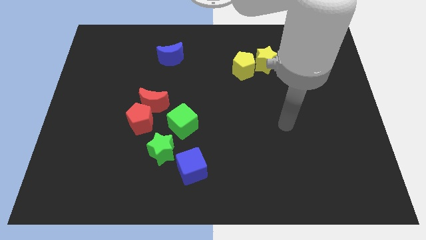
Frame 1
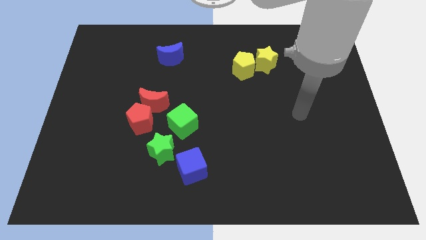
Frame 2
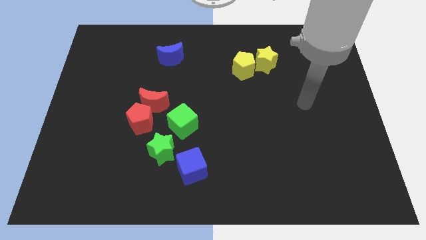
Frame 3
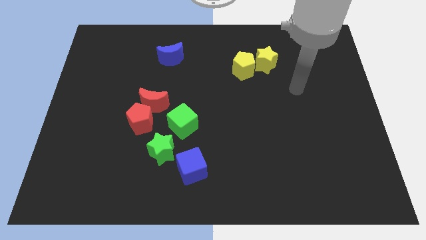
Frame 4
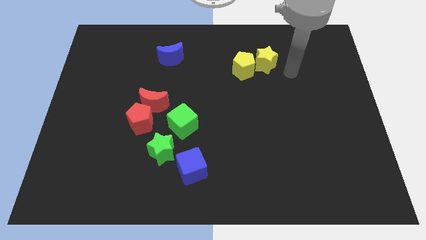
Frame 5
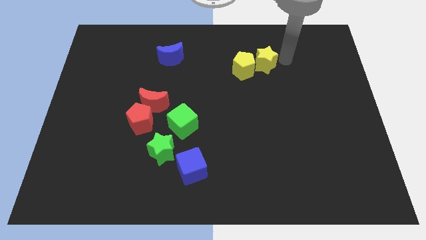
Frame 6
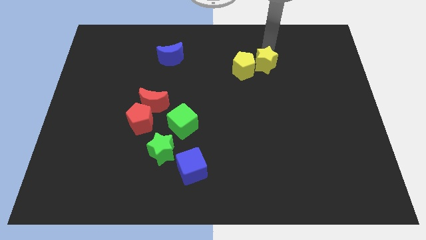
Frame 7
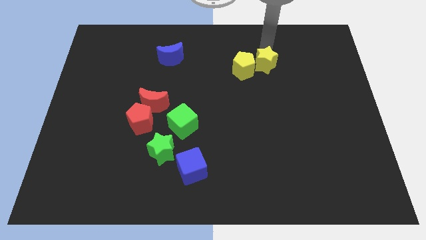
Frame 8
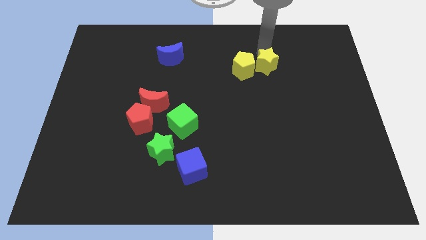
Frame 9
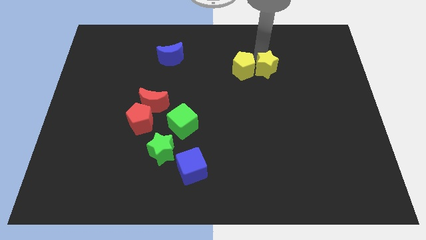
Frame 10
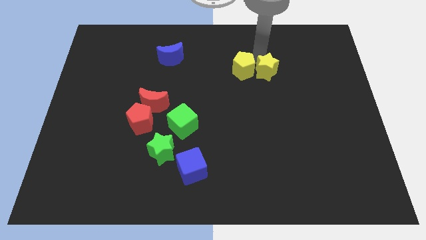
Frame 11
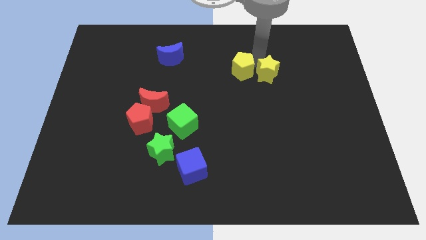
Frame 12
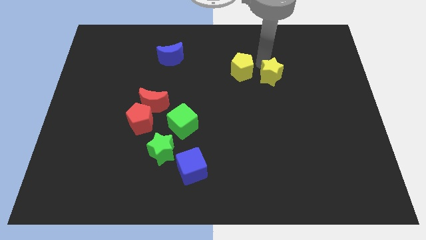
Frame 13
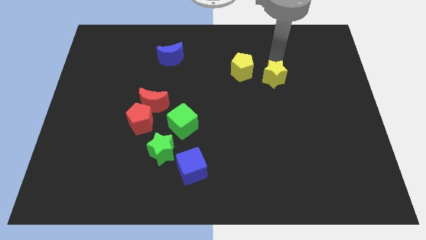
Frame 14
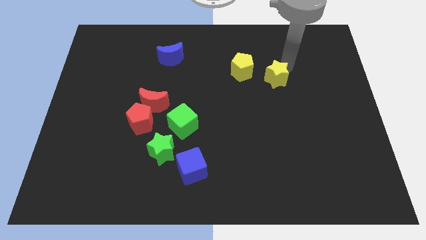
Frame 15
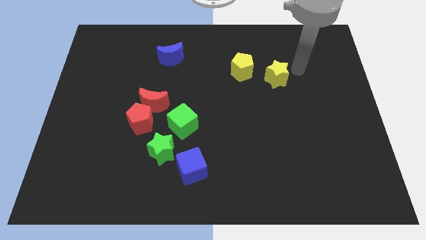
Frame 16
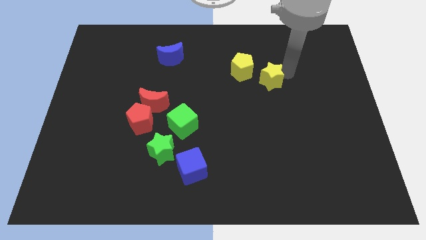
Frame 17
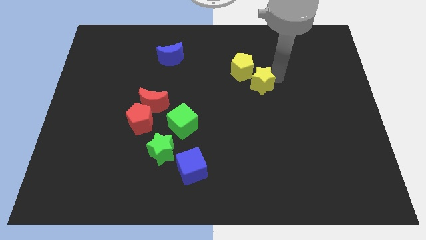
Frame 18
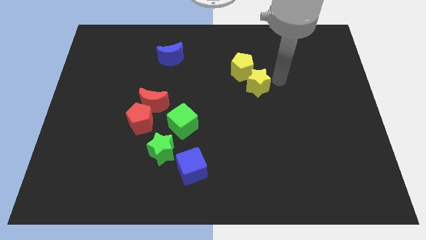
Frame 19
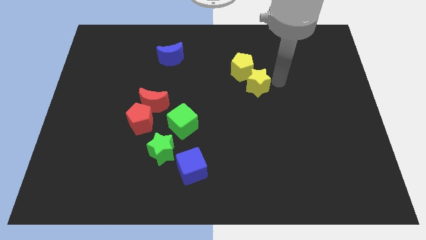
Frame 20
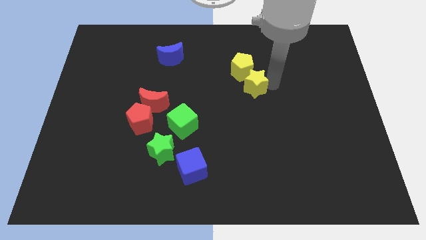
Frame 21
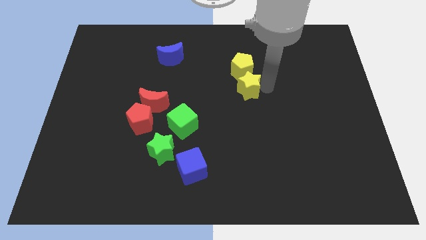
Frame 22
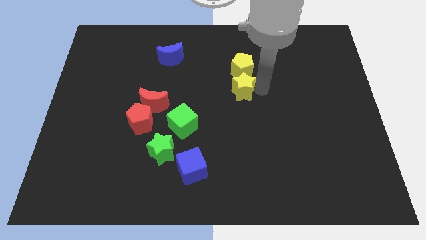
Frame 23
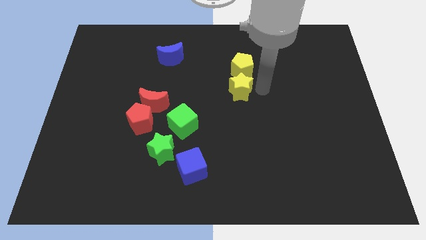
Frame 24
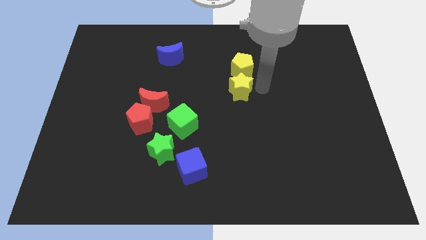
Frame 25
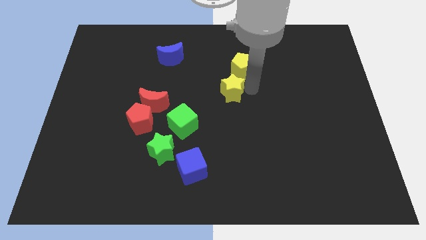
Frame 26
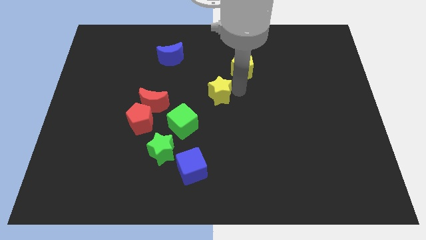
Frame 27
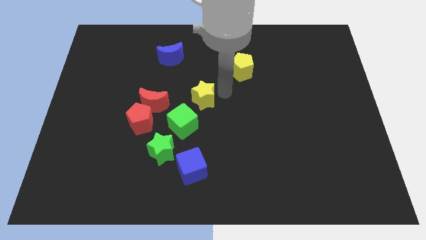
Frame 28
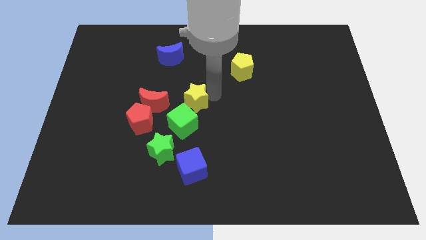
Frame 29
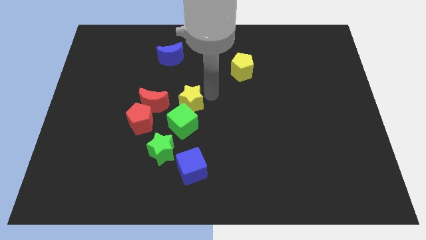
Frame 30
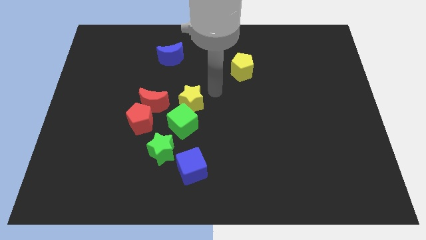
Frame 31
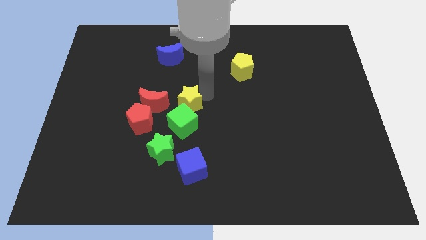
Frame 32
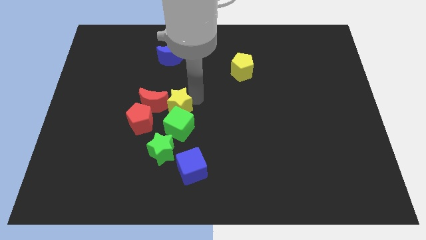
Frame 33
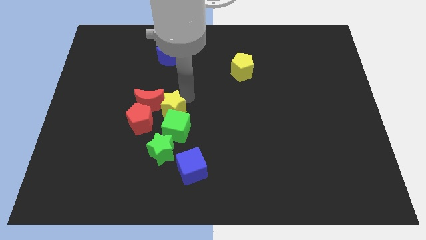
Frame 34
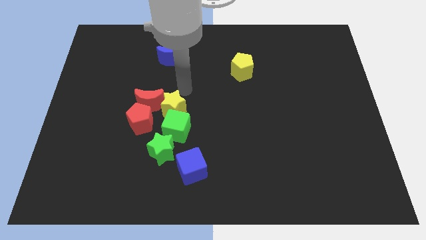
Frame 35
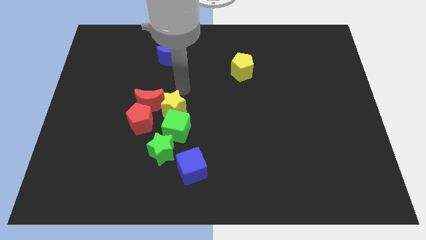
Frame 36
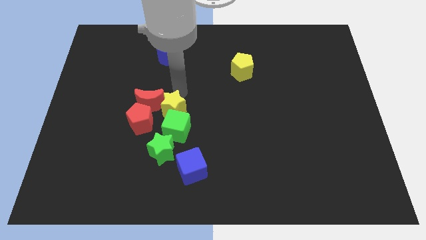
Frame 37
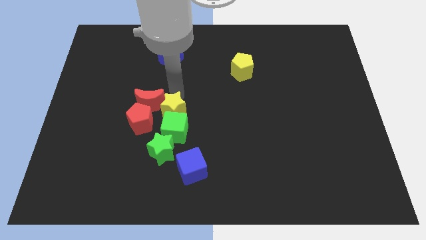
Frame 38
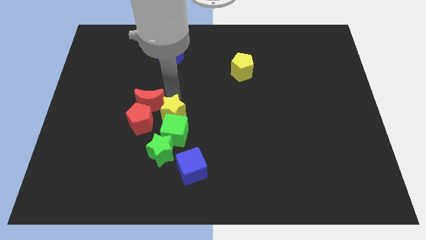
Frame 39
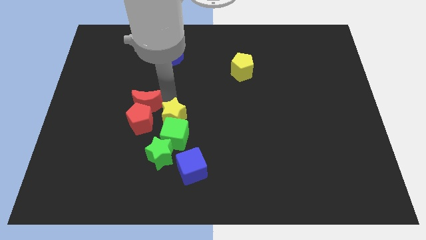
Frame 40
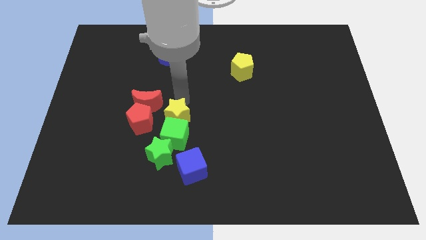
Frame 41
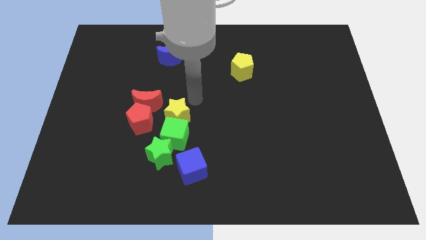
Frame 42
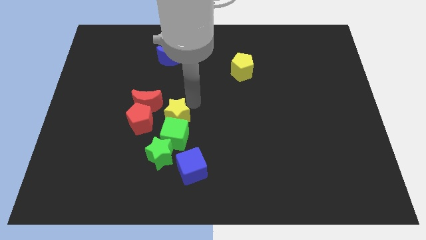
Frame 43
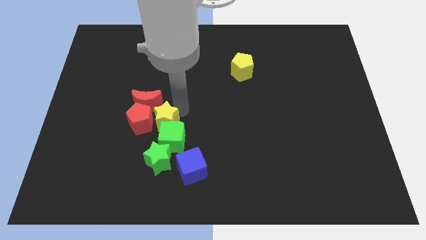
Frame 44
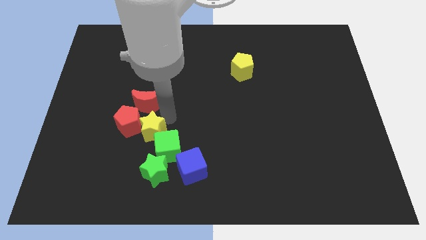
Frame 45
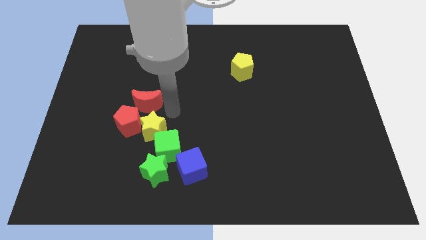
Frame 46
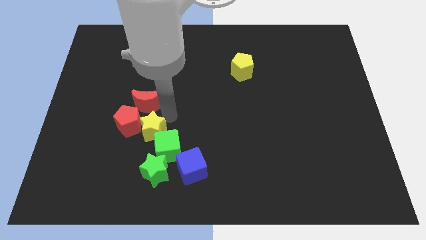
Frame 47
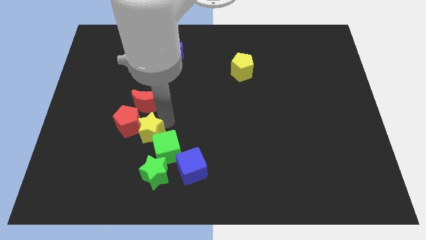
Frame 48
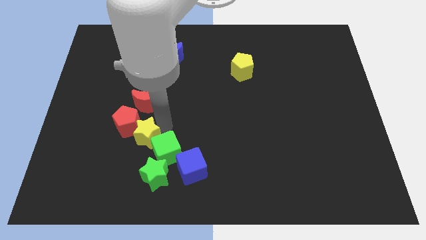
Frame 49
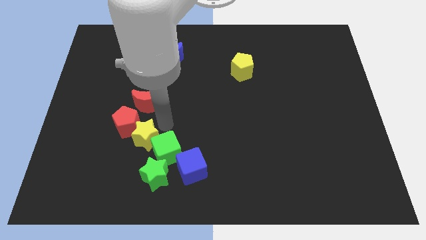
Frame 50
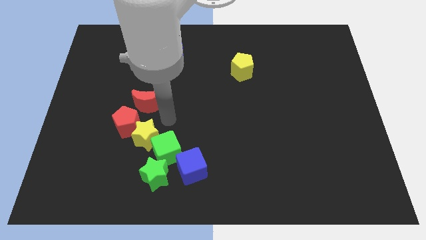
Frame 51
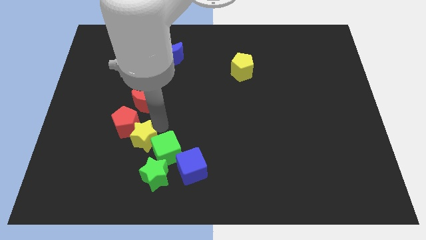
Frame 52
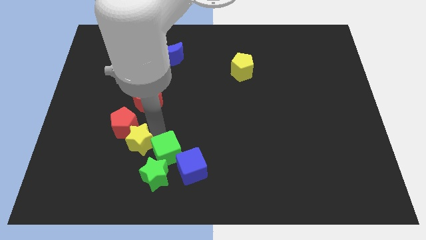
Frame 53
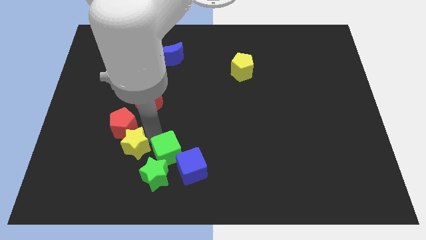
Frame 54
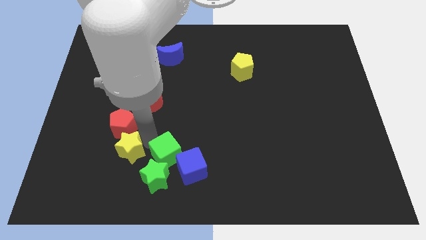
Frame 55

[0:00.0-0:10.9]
put the yellow star to the left side of the blue cube
